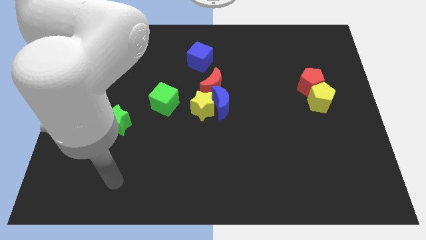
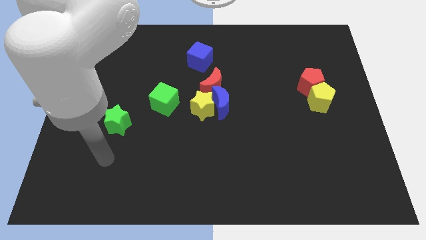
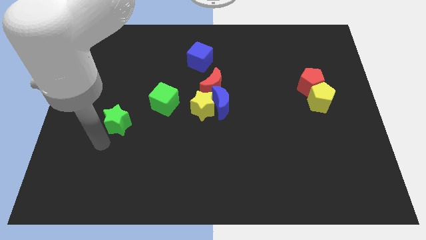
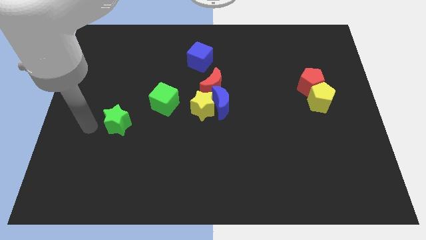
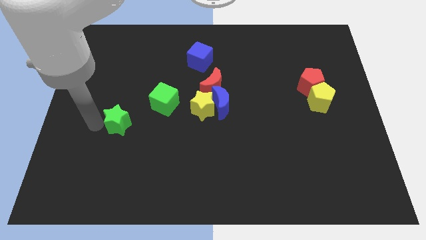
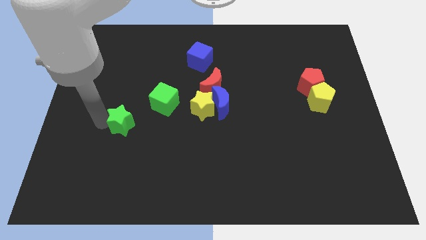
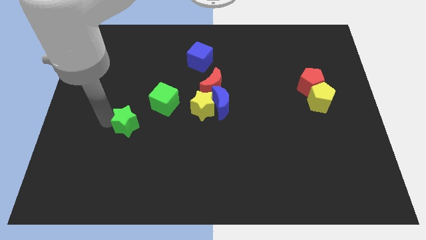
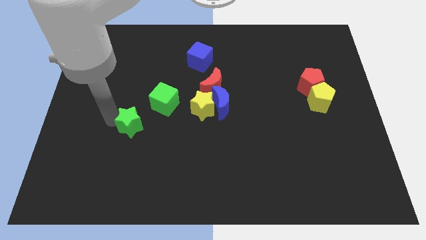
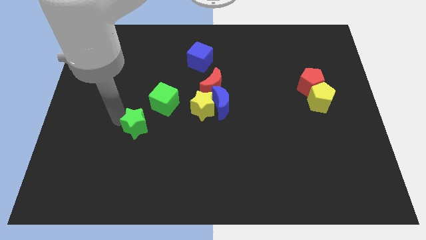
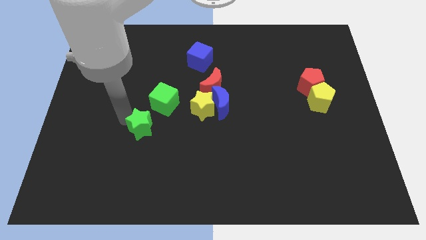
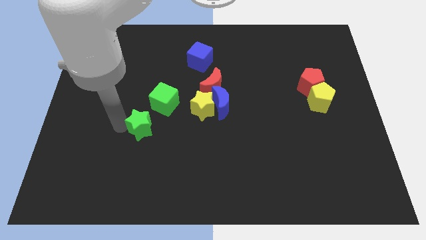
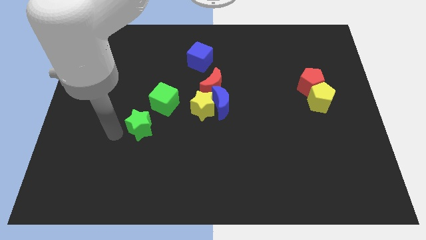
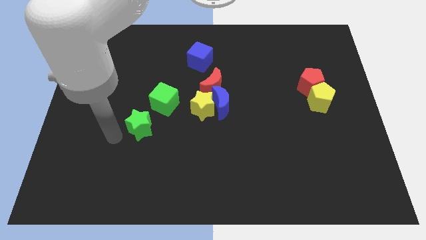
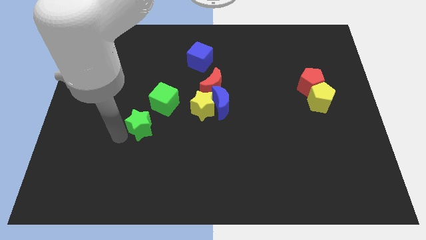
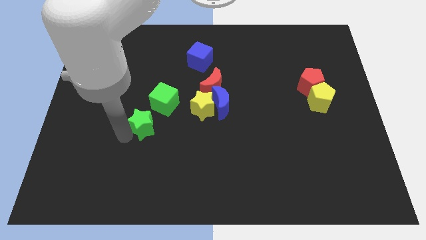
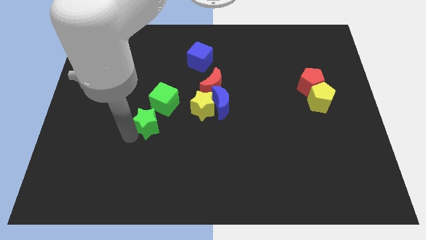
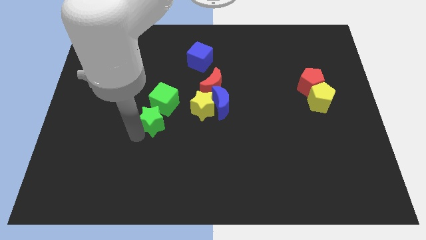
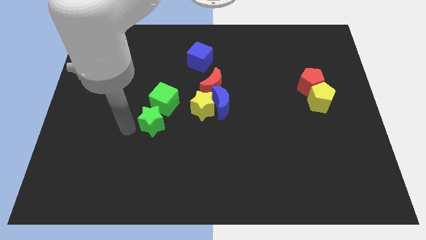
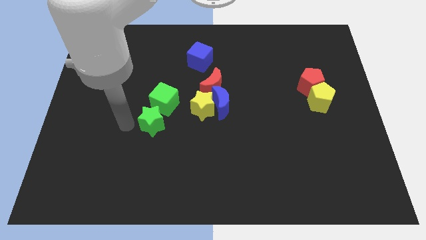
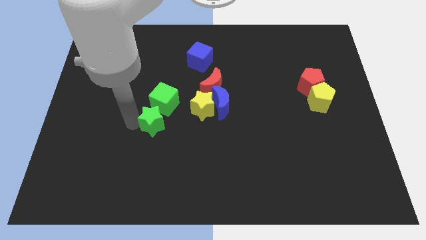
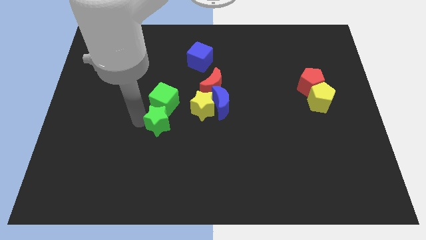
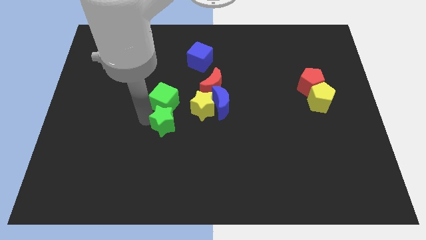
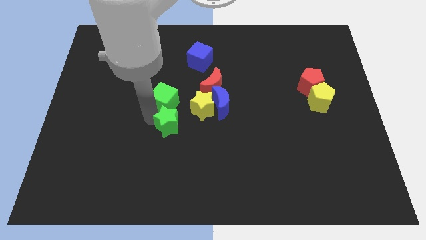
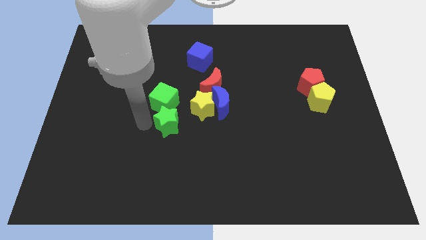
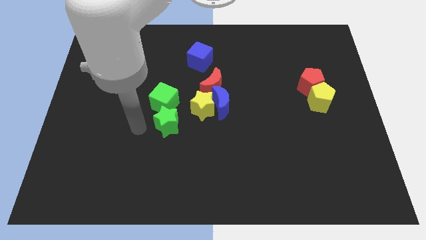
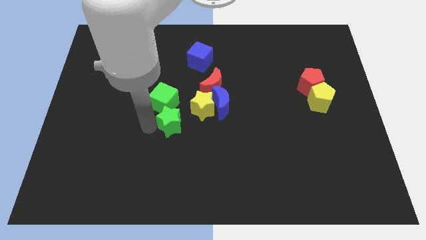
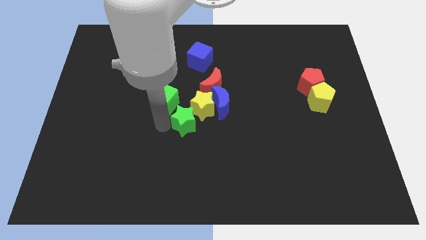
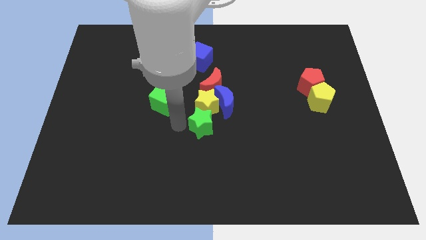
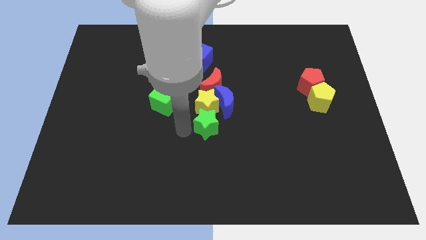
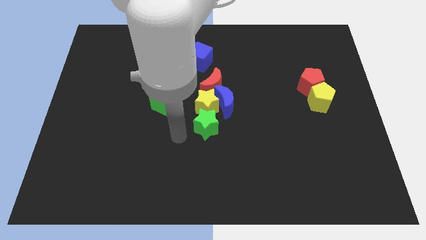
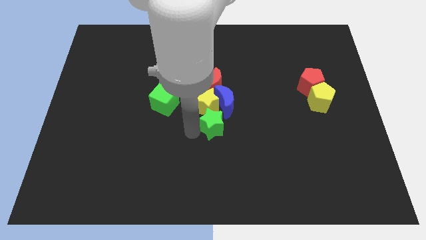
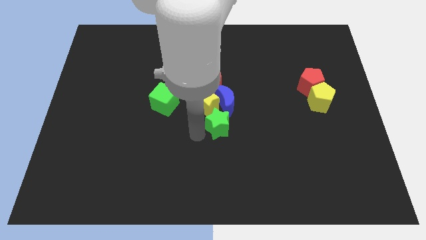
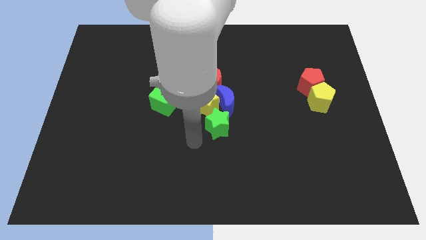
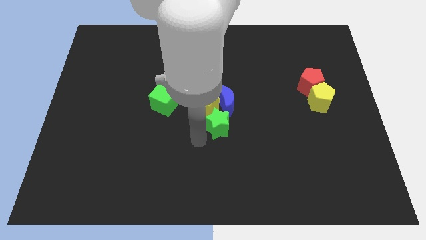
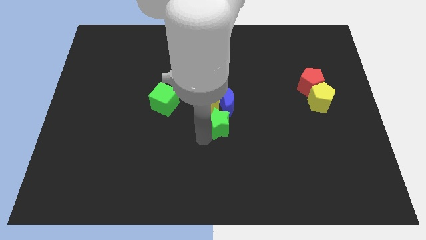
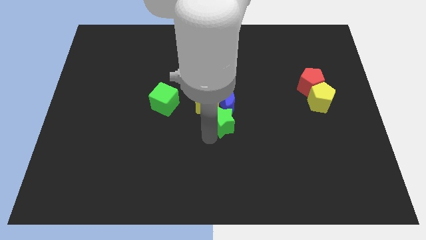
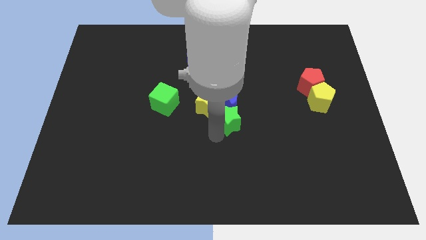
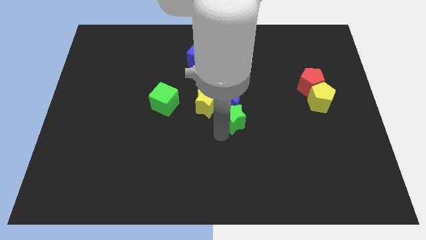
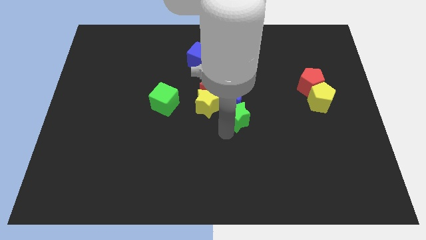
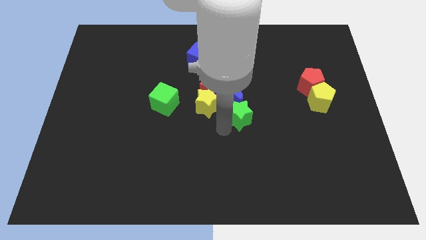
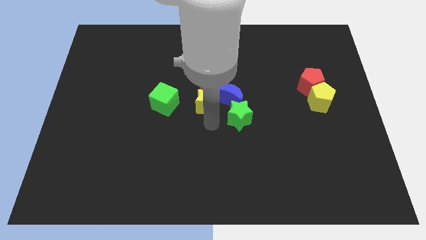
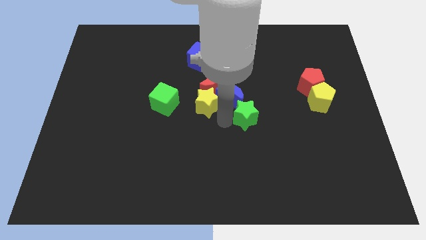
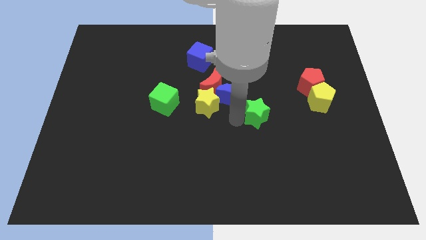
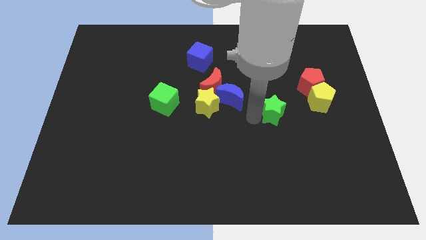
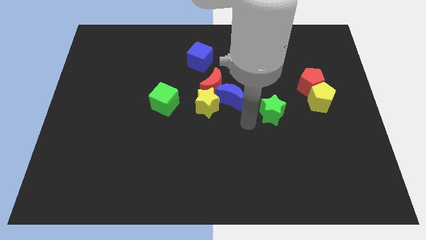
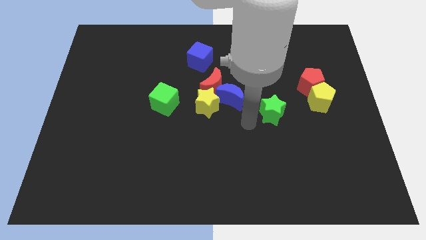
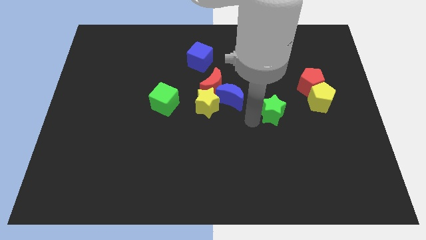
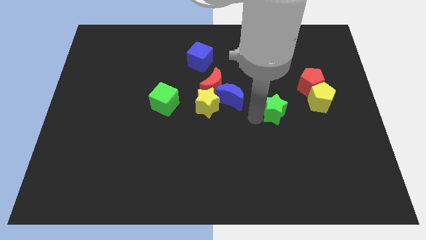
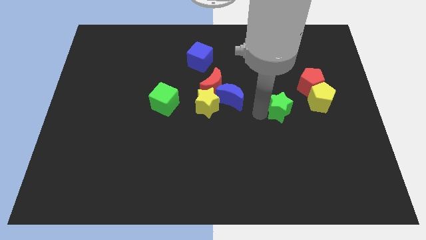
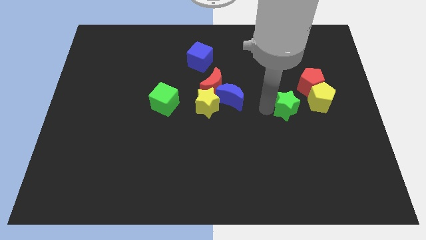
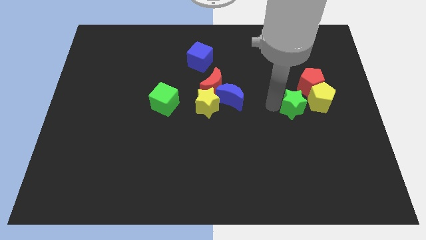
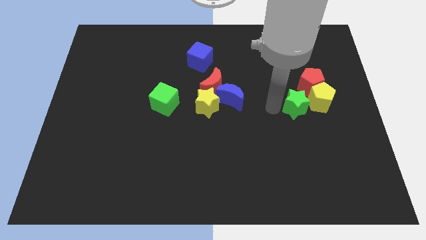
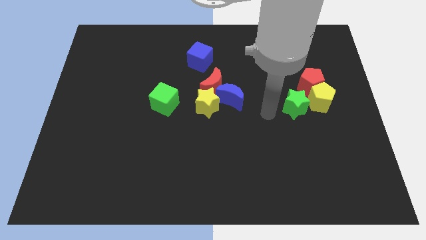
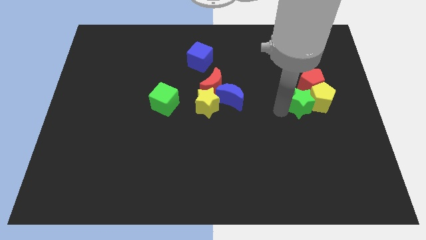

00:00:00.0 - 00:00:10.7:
move the green star next to the yellow pentagon

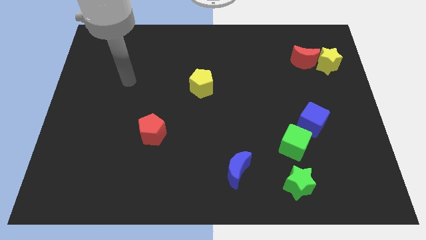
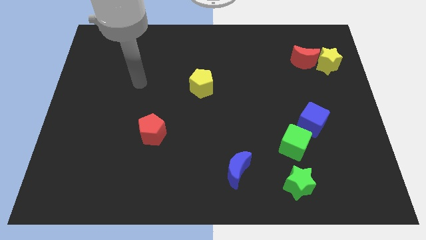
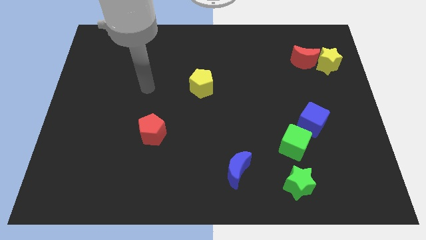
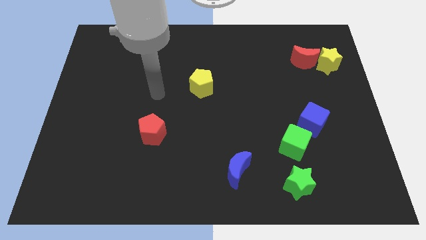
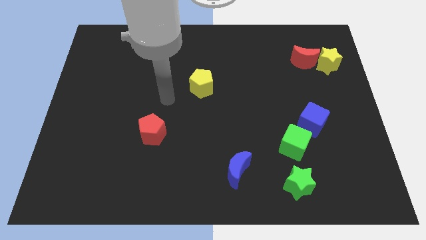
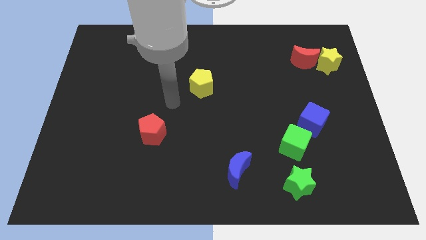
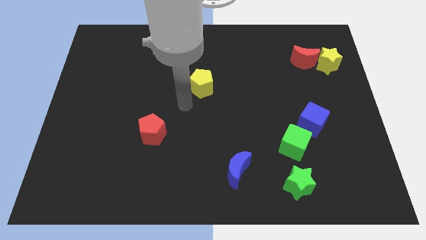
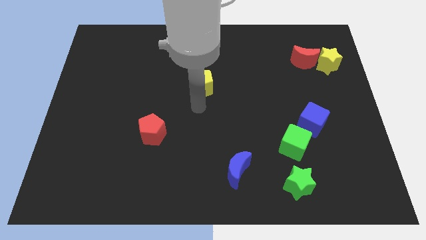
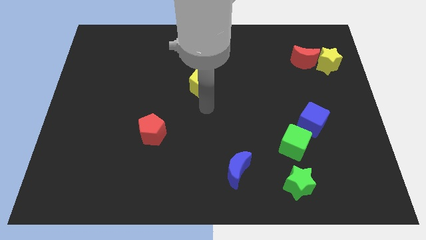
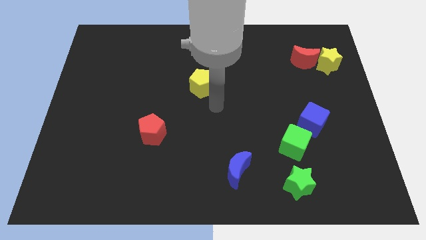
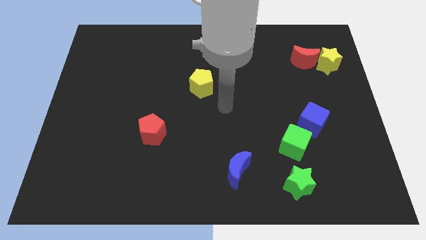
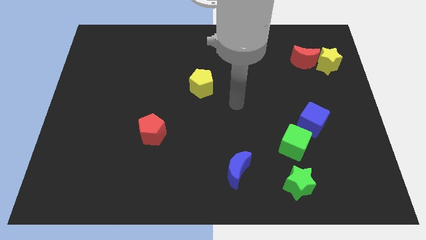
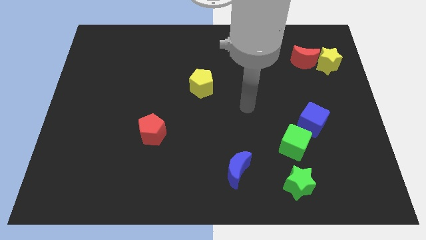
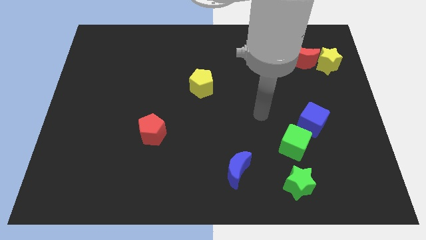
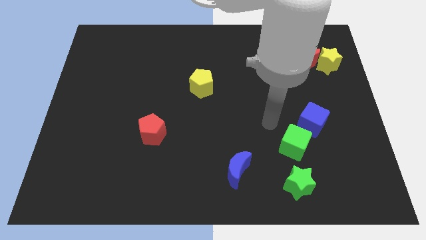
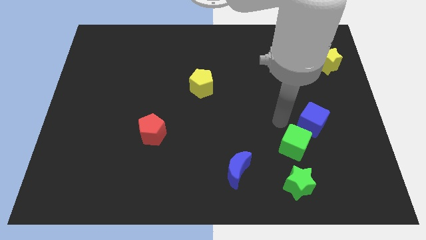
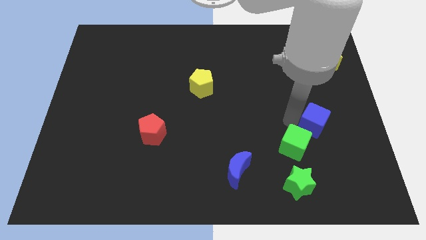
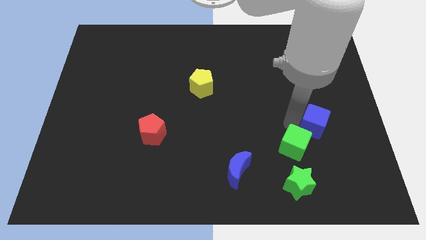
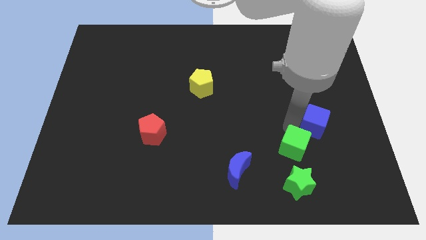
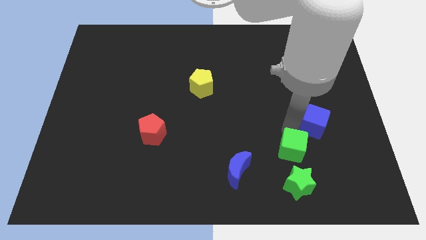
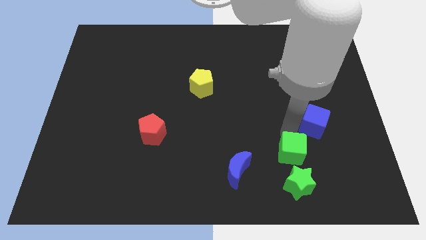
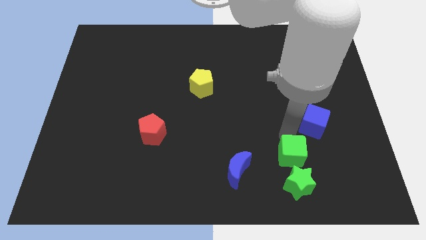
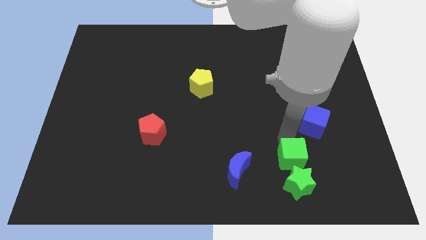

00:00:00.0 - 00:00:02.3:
push the green cube towards the green star
